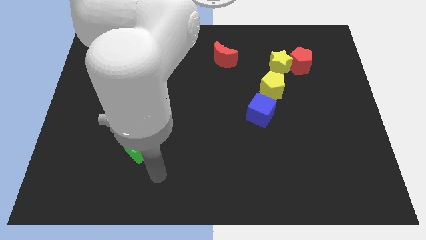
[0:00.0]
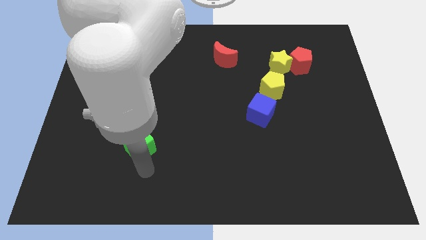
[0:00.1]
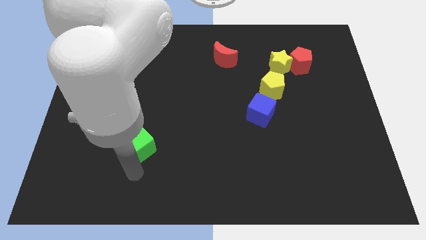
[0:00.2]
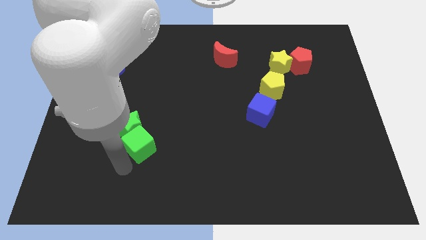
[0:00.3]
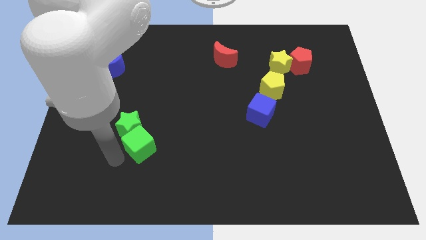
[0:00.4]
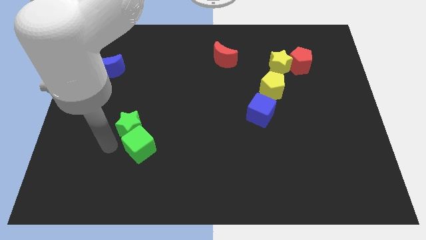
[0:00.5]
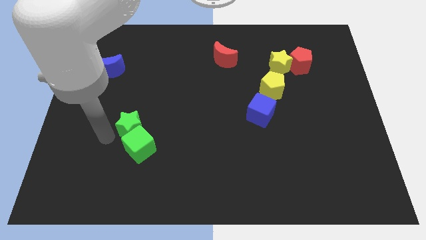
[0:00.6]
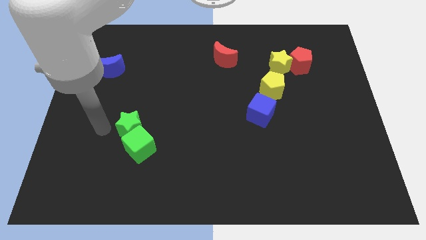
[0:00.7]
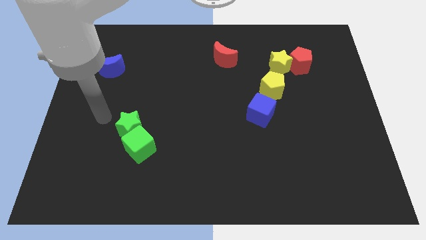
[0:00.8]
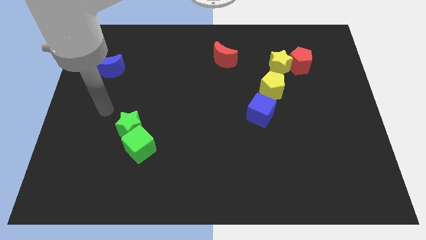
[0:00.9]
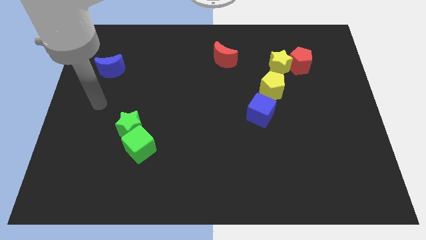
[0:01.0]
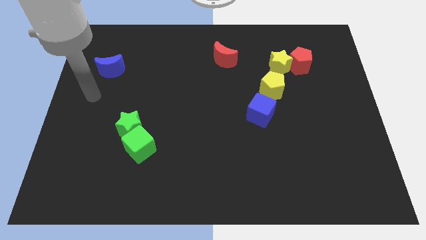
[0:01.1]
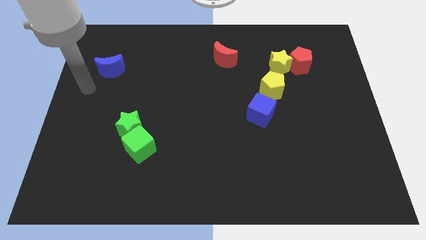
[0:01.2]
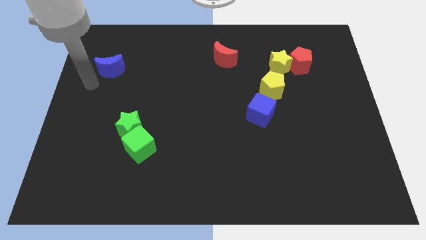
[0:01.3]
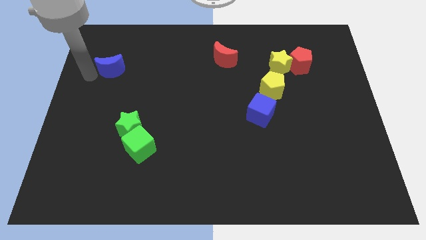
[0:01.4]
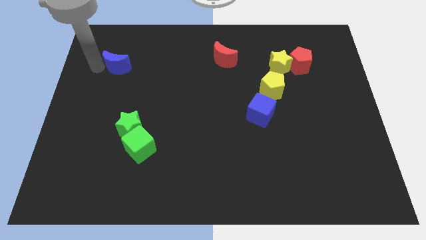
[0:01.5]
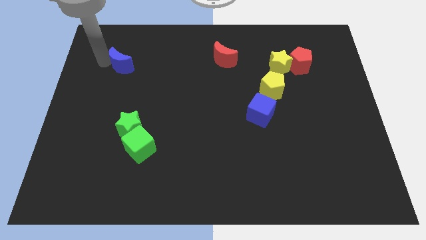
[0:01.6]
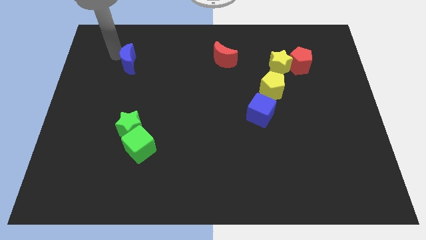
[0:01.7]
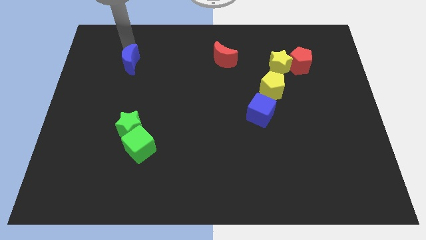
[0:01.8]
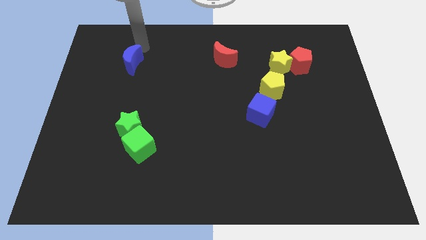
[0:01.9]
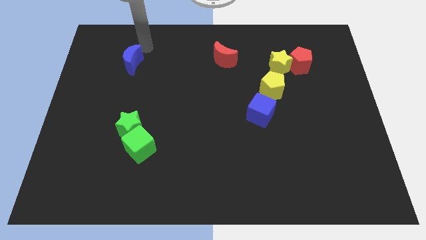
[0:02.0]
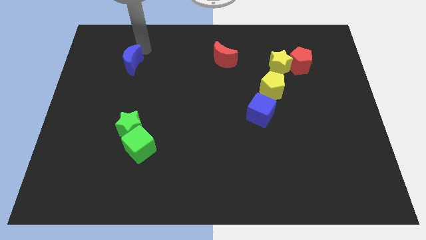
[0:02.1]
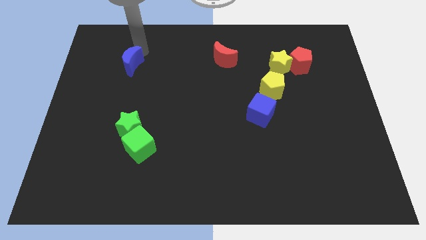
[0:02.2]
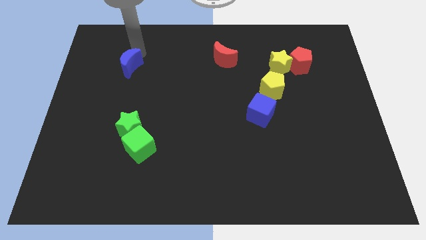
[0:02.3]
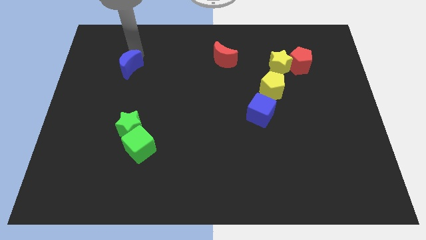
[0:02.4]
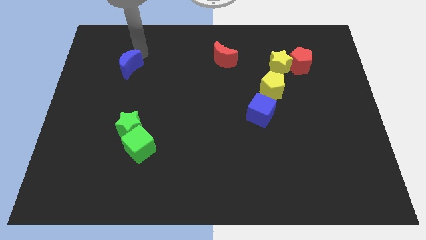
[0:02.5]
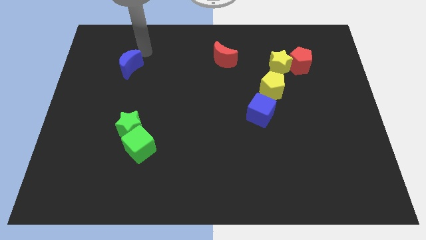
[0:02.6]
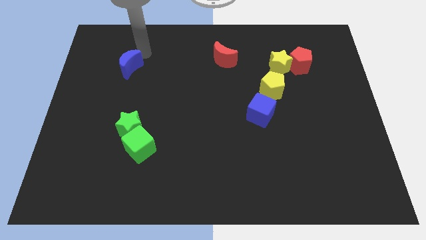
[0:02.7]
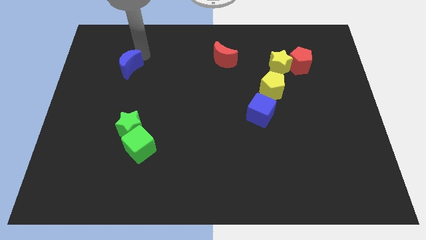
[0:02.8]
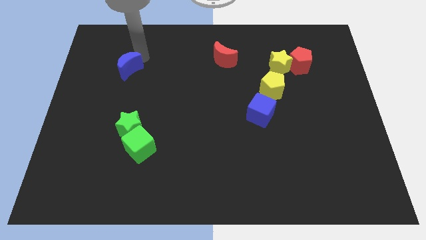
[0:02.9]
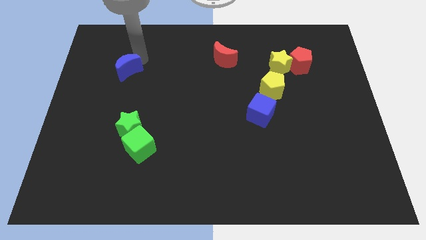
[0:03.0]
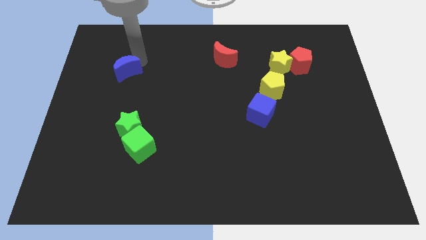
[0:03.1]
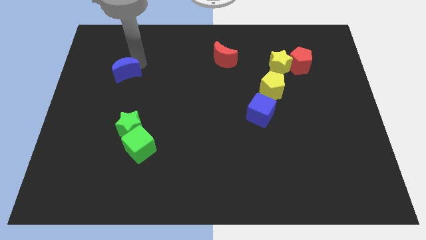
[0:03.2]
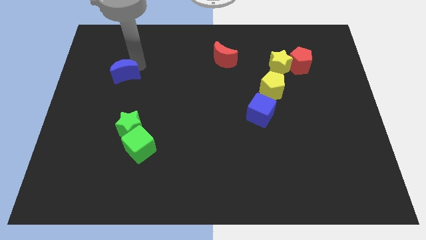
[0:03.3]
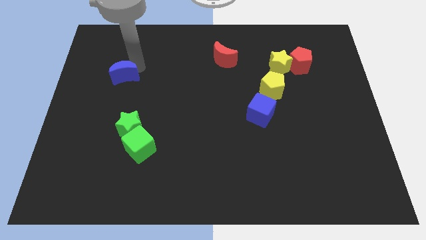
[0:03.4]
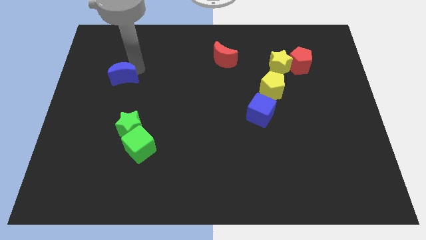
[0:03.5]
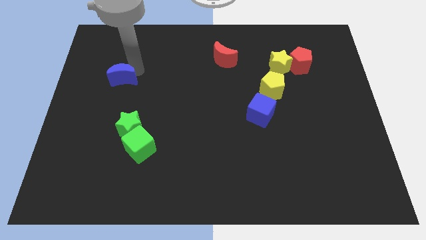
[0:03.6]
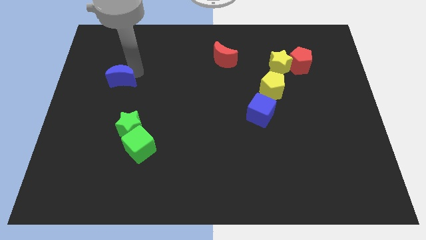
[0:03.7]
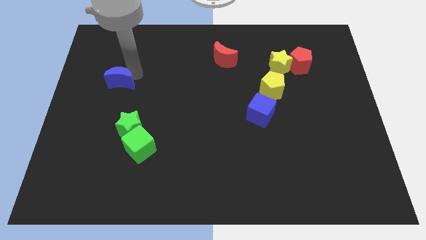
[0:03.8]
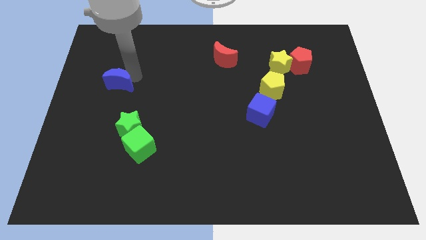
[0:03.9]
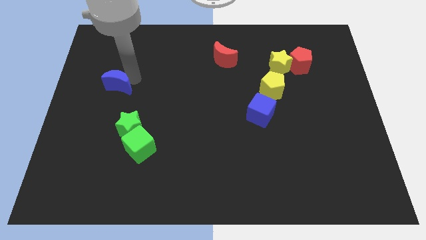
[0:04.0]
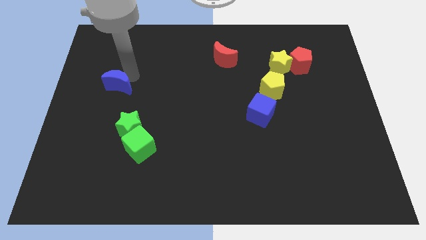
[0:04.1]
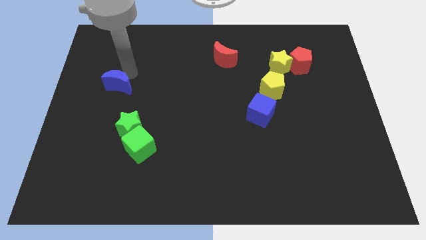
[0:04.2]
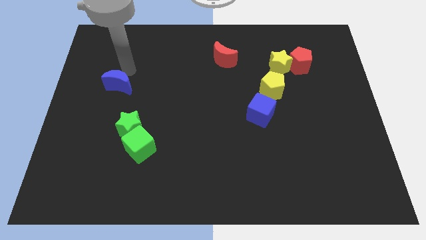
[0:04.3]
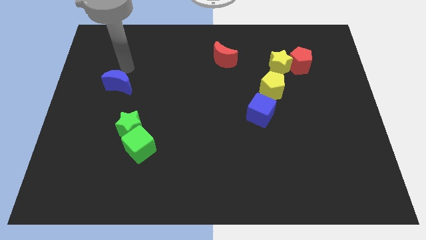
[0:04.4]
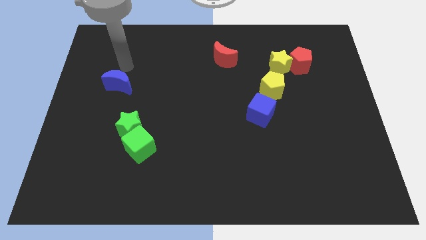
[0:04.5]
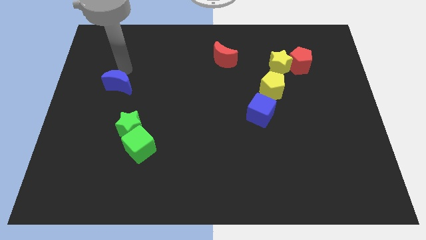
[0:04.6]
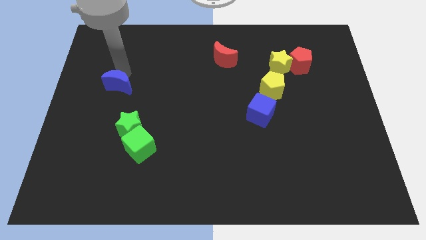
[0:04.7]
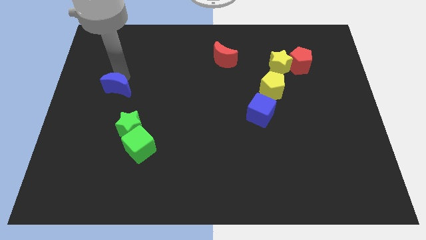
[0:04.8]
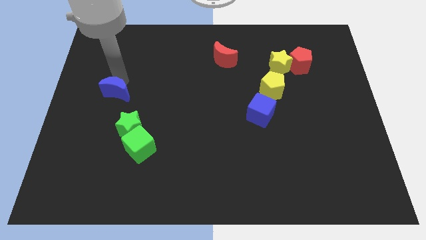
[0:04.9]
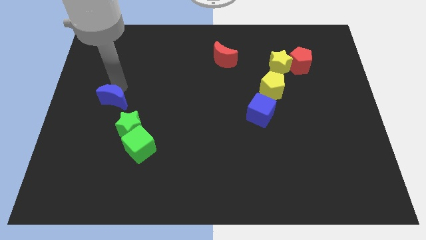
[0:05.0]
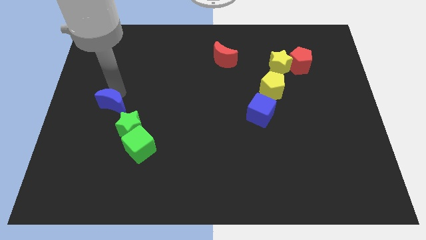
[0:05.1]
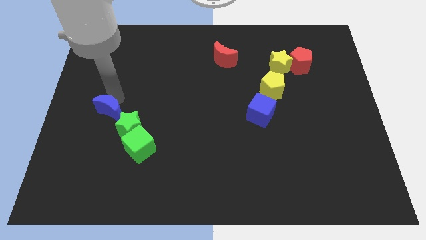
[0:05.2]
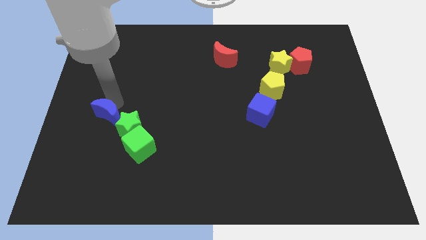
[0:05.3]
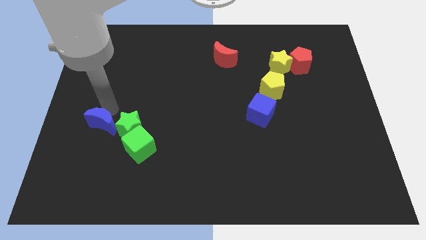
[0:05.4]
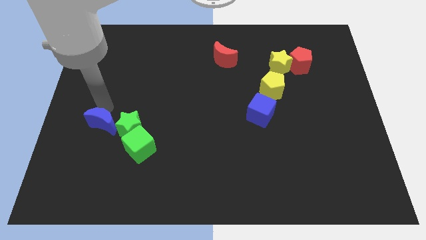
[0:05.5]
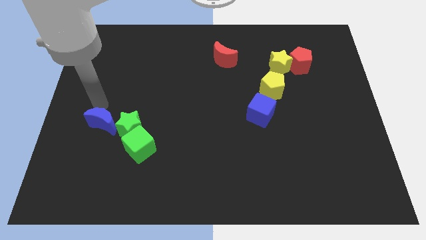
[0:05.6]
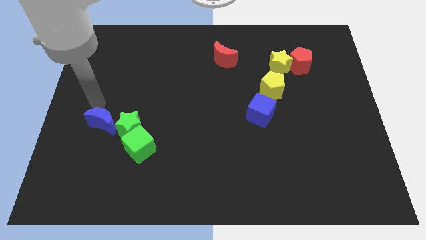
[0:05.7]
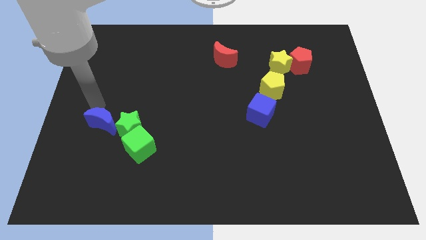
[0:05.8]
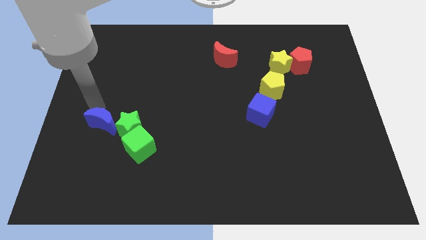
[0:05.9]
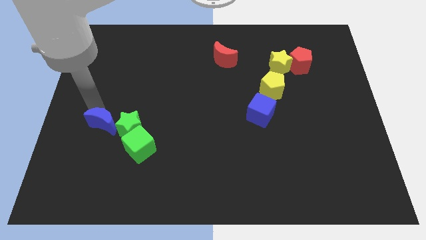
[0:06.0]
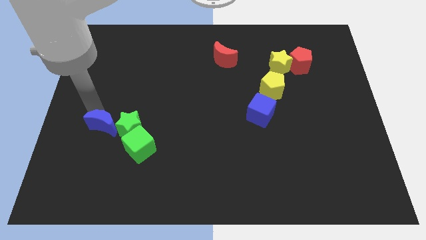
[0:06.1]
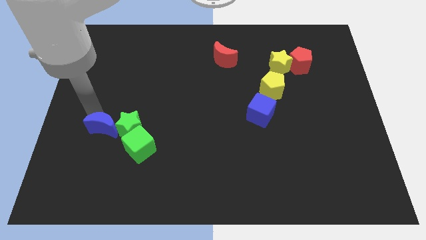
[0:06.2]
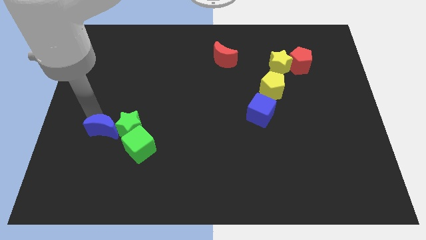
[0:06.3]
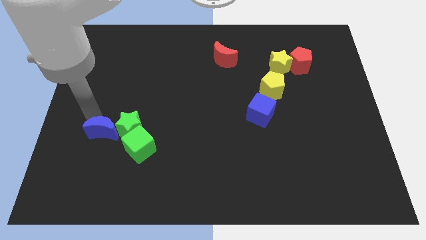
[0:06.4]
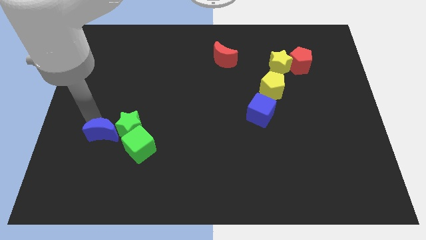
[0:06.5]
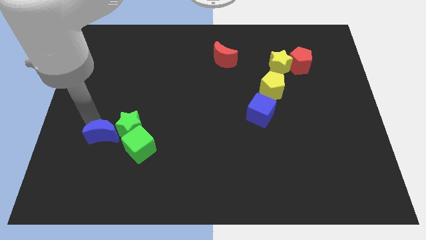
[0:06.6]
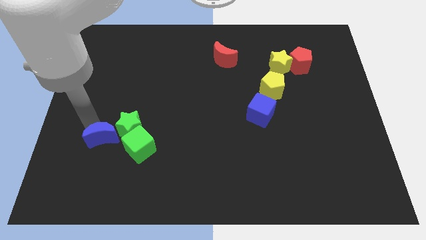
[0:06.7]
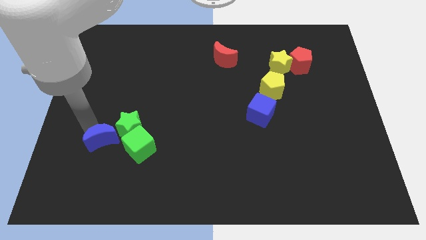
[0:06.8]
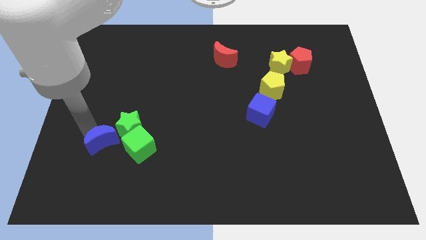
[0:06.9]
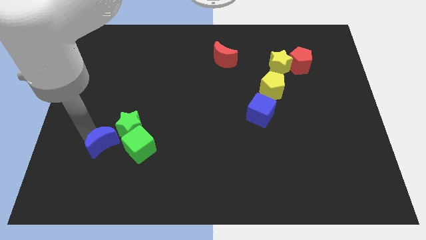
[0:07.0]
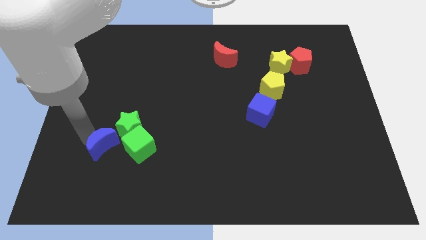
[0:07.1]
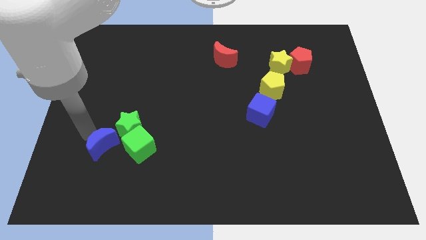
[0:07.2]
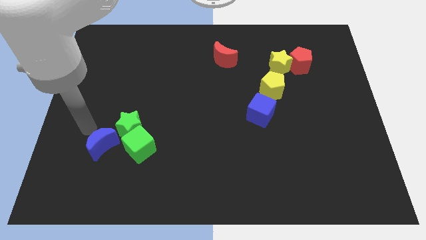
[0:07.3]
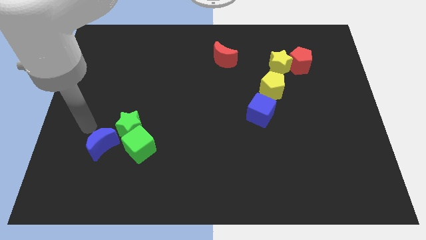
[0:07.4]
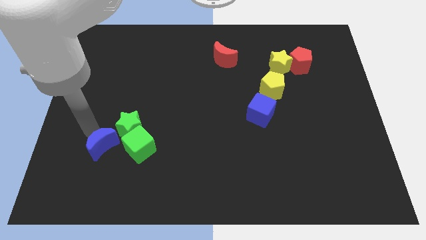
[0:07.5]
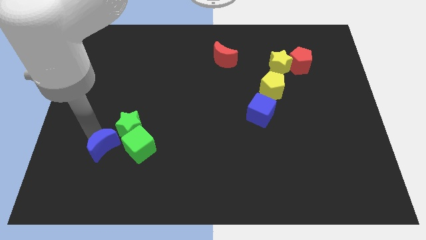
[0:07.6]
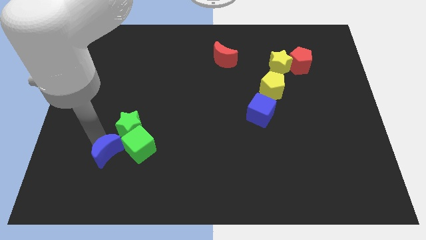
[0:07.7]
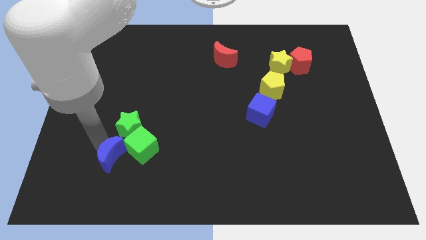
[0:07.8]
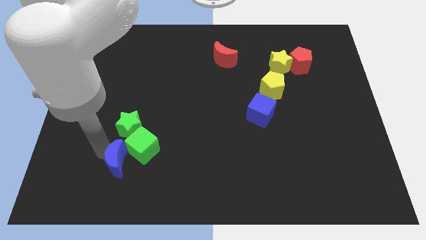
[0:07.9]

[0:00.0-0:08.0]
move the blue moon next to the green cube
